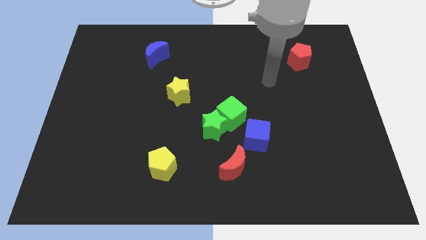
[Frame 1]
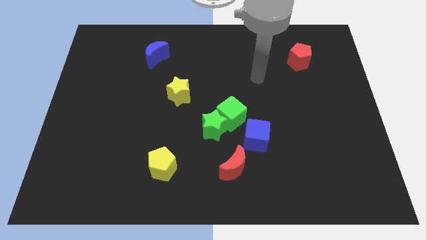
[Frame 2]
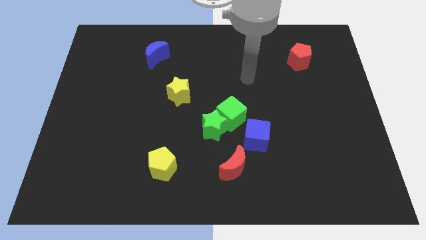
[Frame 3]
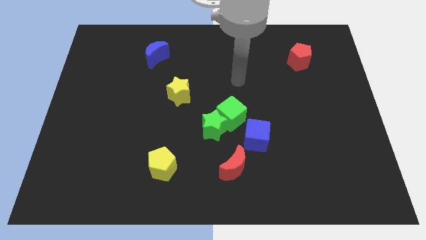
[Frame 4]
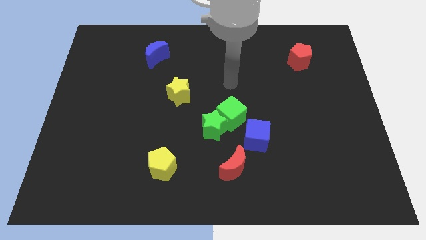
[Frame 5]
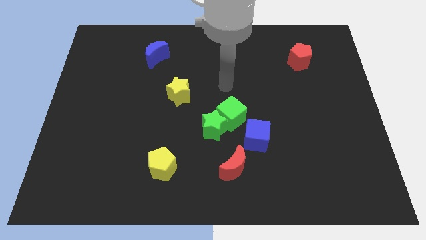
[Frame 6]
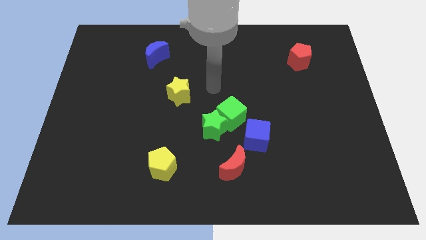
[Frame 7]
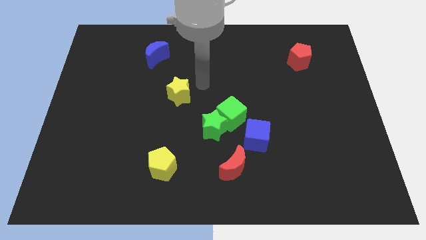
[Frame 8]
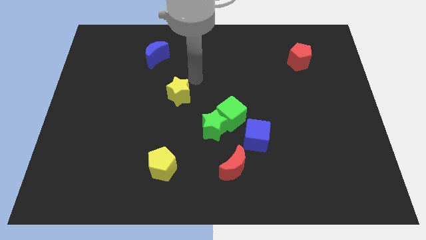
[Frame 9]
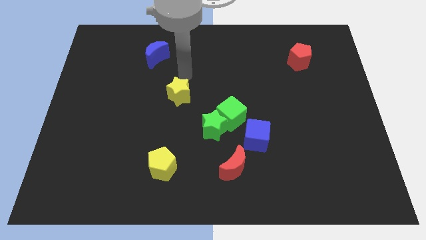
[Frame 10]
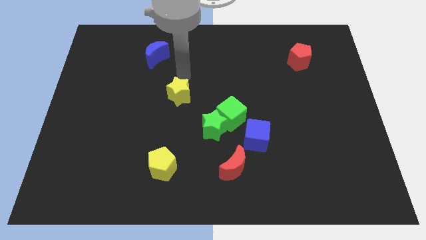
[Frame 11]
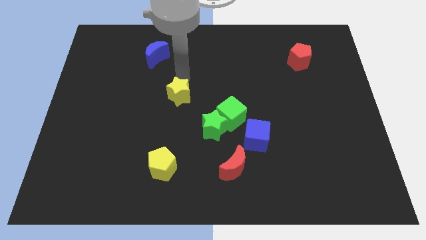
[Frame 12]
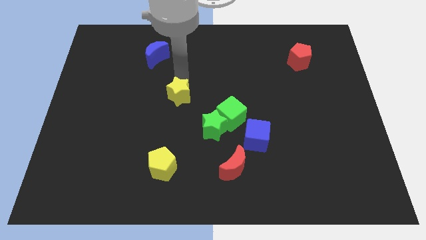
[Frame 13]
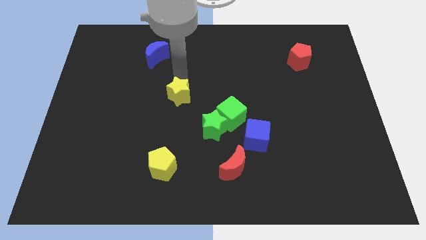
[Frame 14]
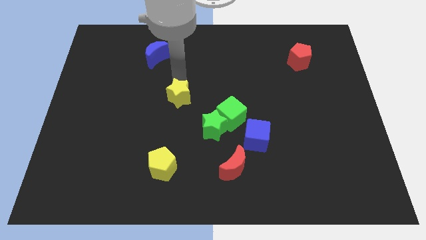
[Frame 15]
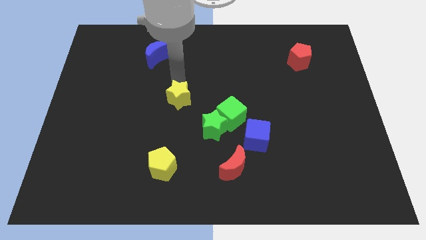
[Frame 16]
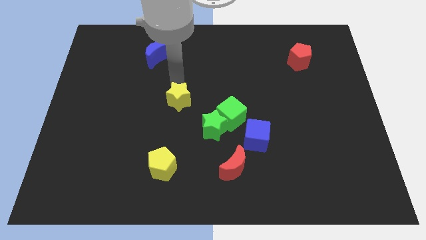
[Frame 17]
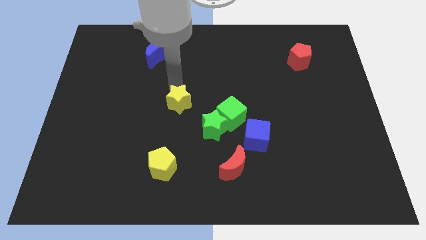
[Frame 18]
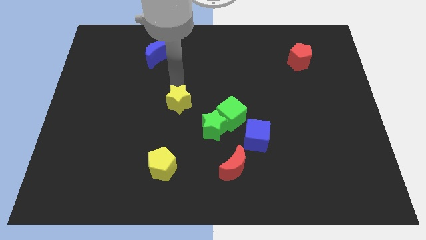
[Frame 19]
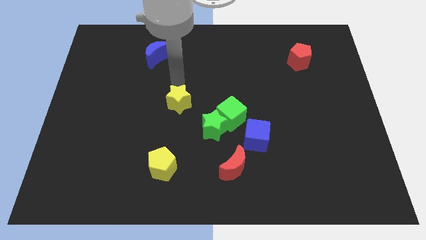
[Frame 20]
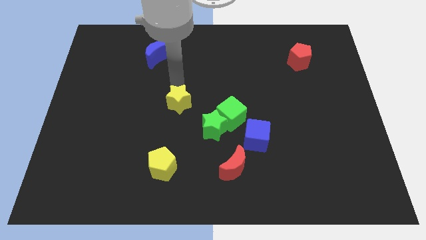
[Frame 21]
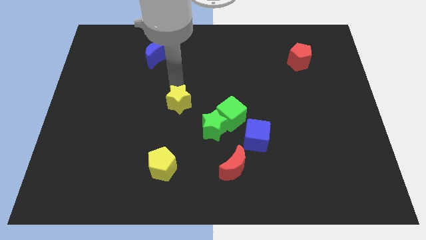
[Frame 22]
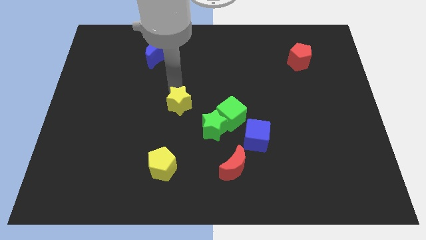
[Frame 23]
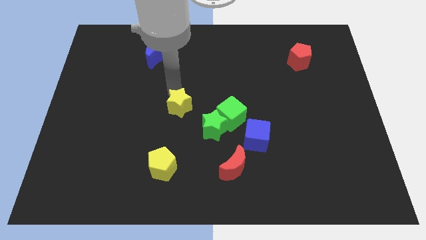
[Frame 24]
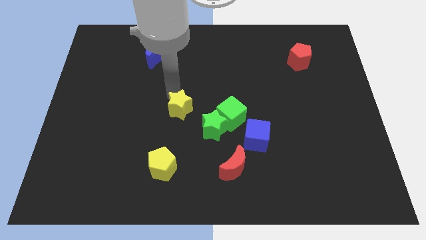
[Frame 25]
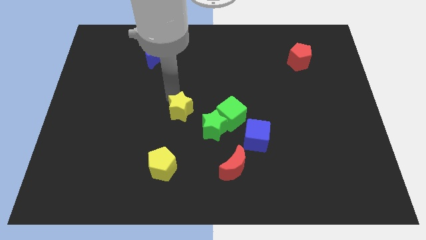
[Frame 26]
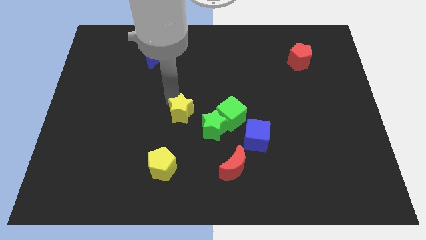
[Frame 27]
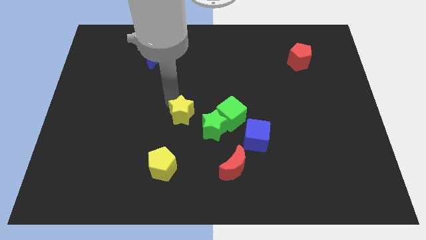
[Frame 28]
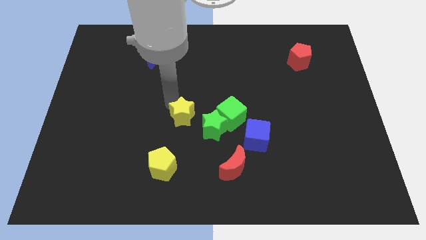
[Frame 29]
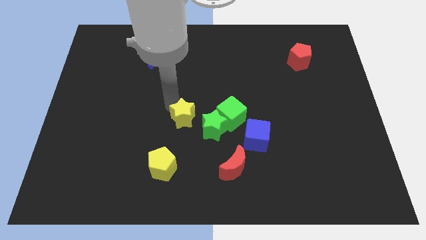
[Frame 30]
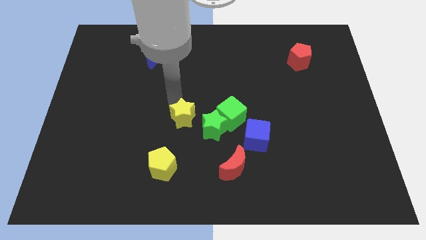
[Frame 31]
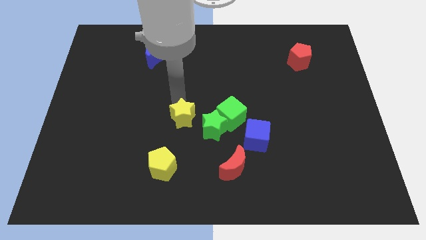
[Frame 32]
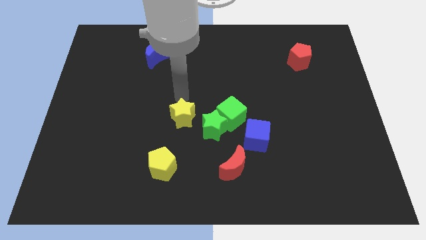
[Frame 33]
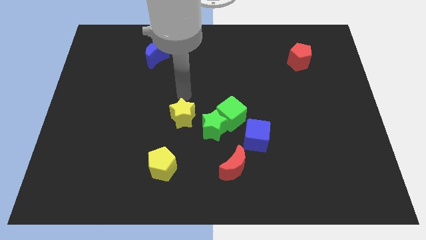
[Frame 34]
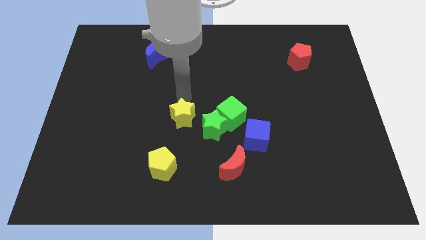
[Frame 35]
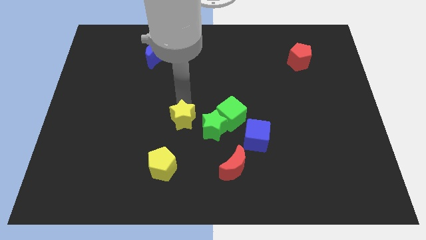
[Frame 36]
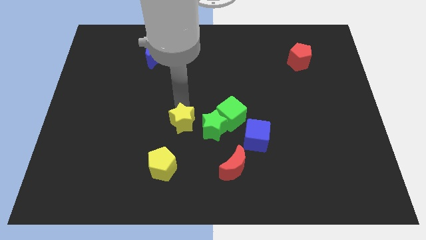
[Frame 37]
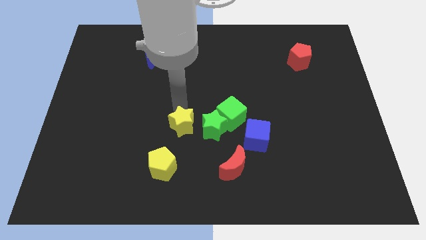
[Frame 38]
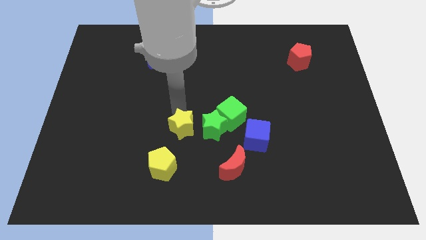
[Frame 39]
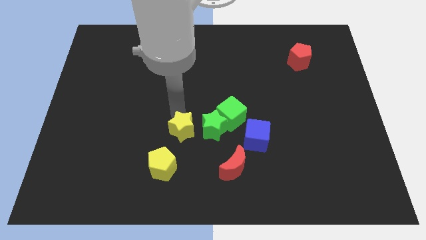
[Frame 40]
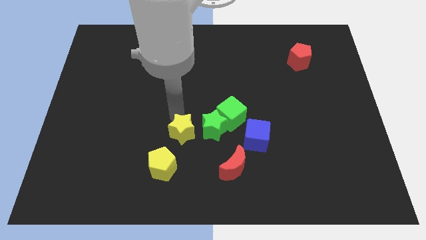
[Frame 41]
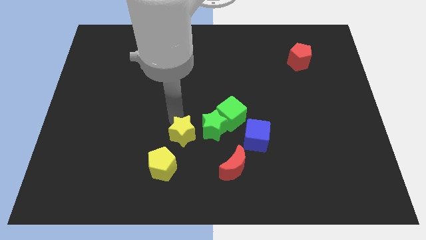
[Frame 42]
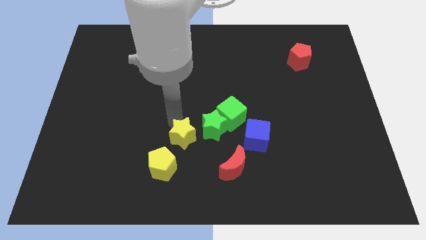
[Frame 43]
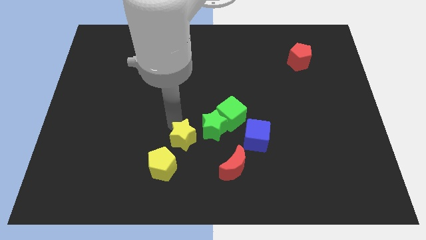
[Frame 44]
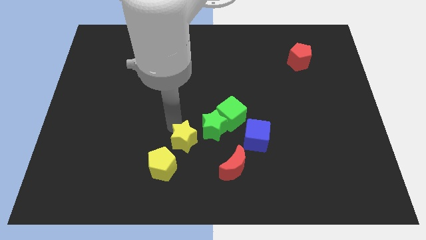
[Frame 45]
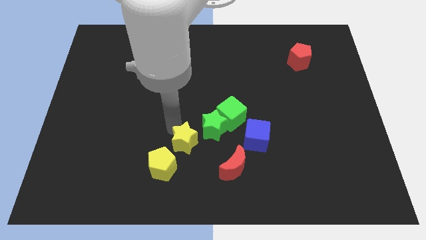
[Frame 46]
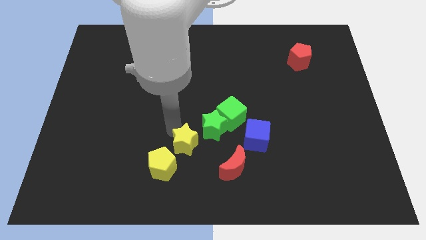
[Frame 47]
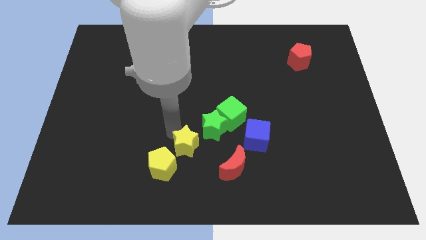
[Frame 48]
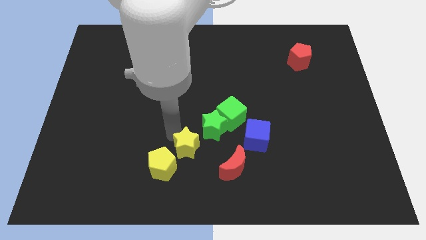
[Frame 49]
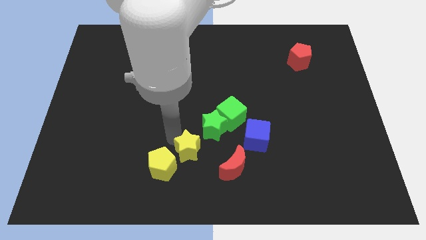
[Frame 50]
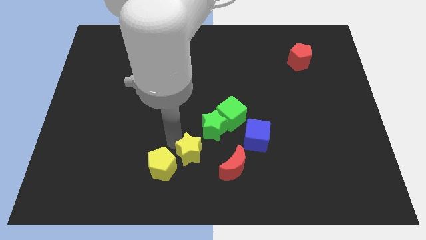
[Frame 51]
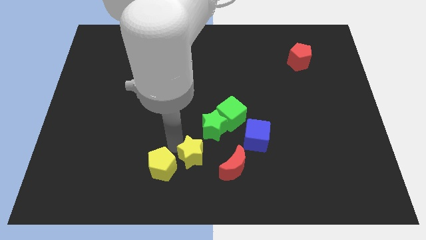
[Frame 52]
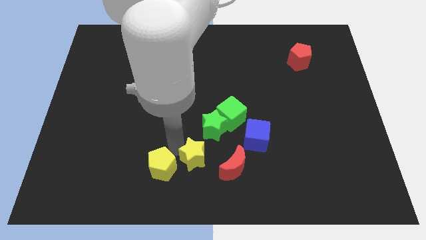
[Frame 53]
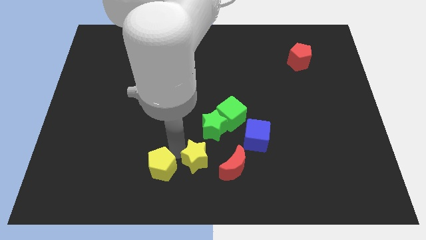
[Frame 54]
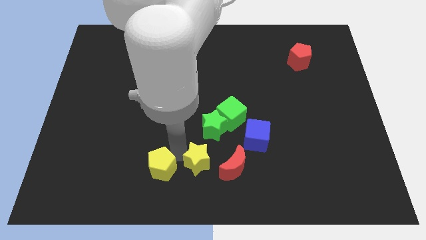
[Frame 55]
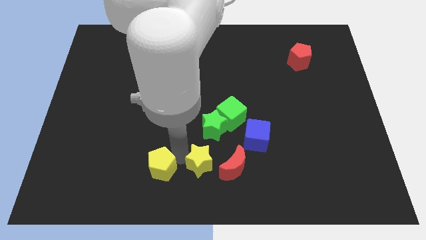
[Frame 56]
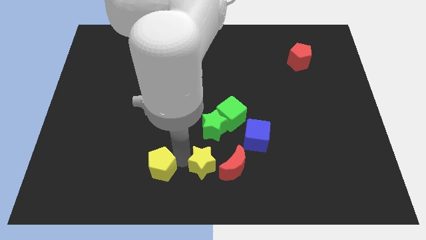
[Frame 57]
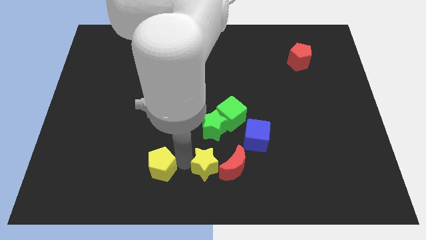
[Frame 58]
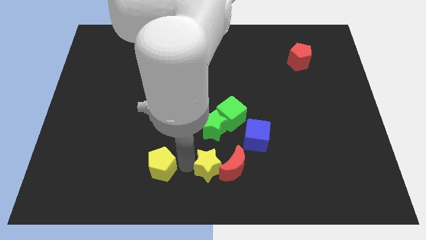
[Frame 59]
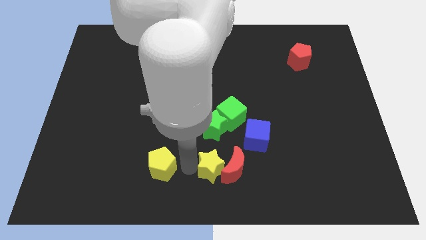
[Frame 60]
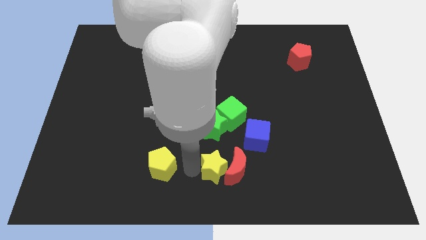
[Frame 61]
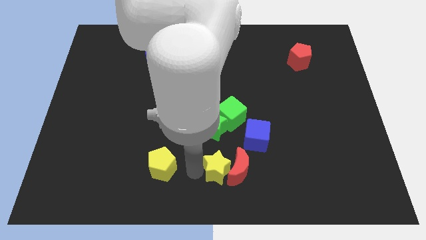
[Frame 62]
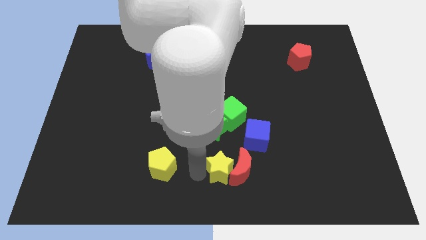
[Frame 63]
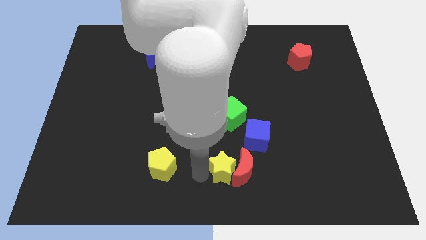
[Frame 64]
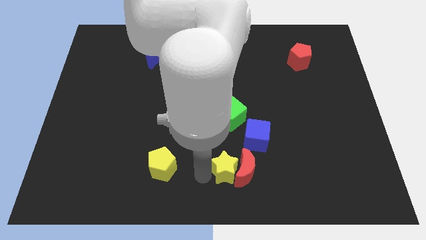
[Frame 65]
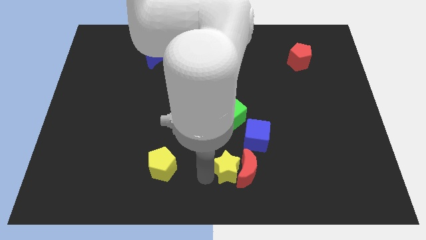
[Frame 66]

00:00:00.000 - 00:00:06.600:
slide the yellow star down and then to the right

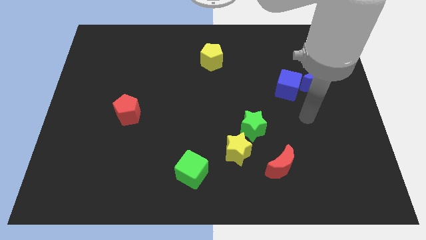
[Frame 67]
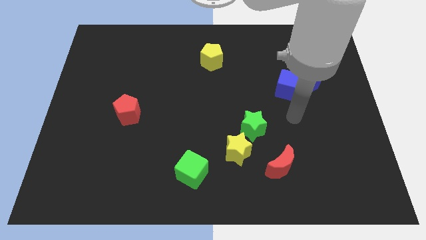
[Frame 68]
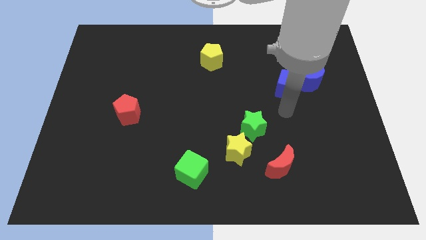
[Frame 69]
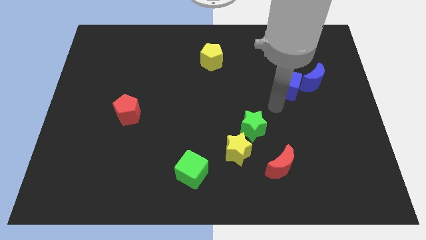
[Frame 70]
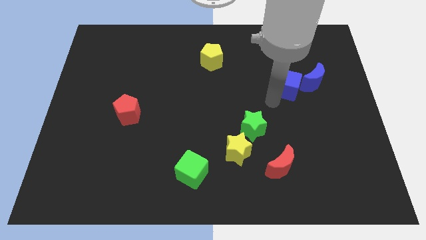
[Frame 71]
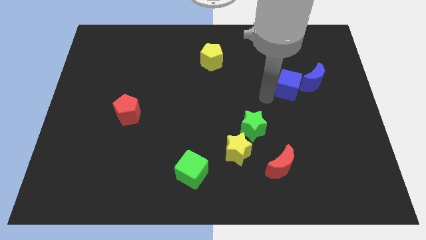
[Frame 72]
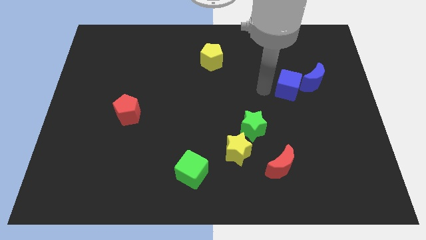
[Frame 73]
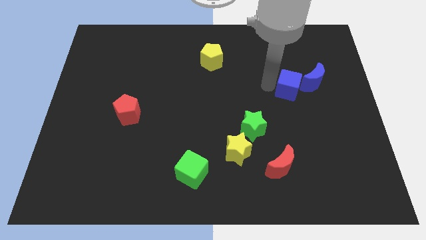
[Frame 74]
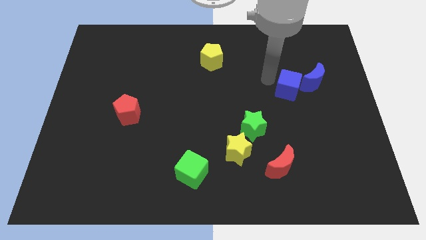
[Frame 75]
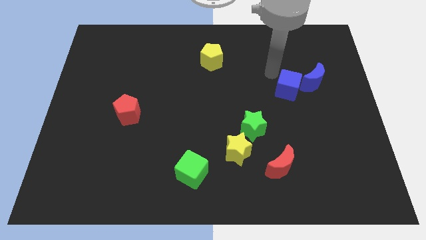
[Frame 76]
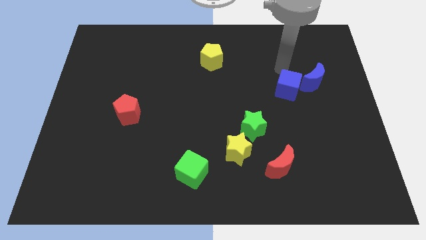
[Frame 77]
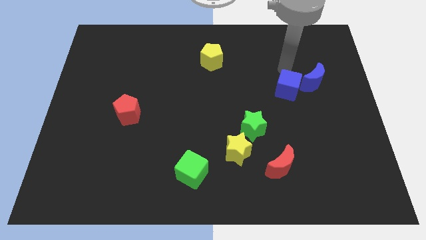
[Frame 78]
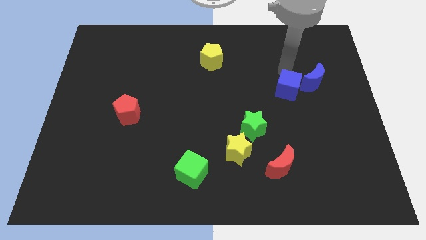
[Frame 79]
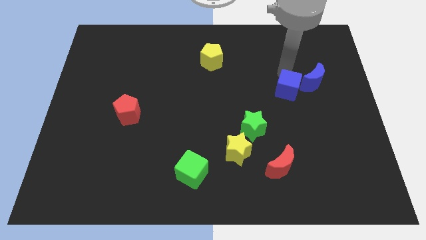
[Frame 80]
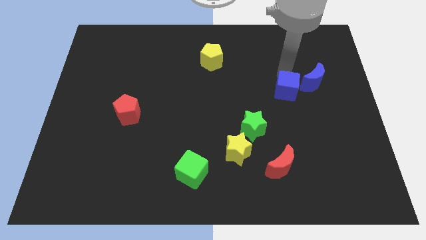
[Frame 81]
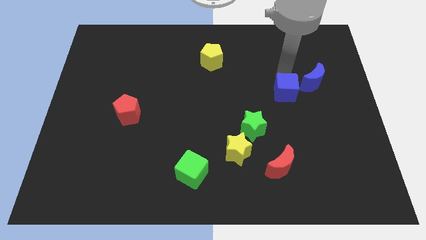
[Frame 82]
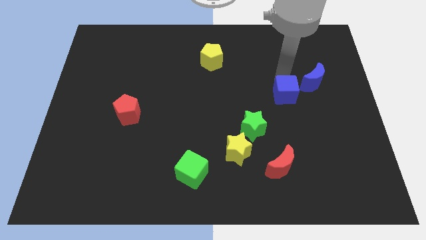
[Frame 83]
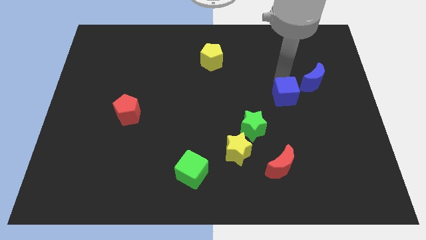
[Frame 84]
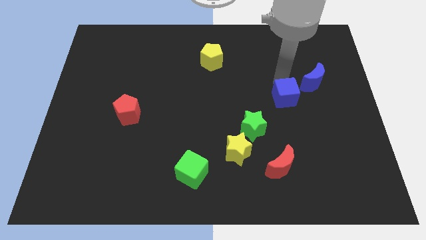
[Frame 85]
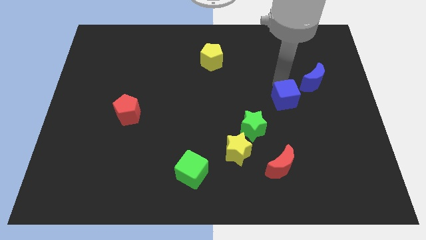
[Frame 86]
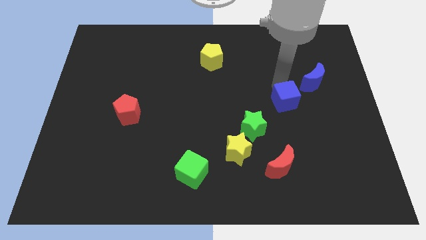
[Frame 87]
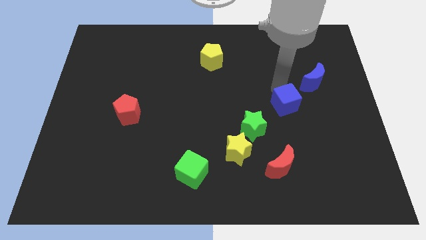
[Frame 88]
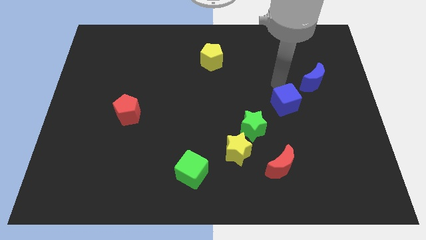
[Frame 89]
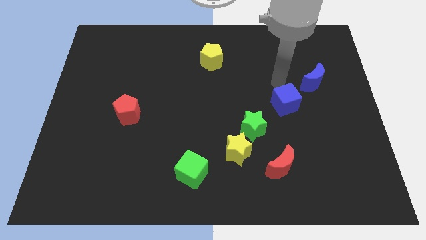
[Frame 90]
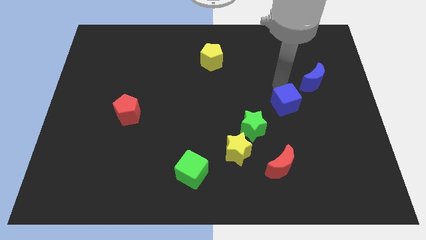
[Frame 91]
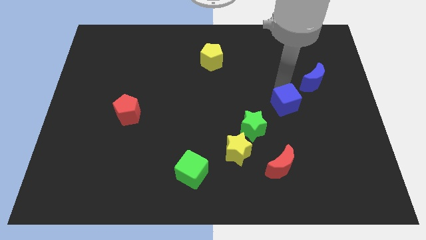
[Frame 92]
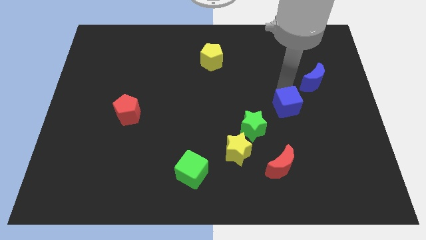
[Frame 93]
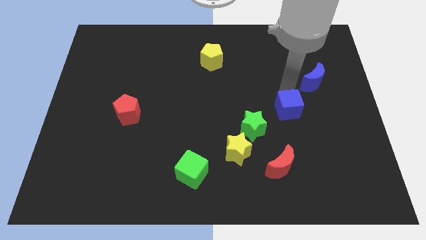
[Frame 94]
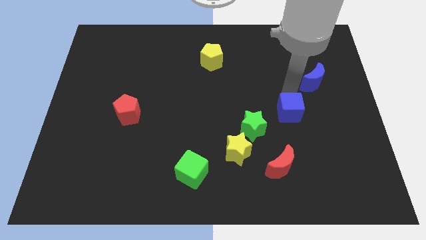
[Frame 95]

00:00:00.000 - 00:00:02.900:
push the blue cube down a bit
